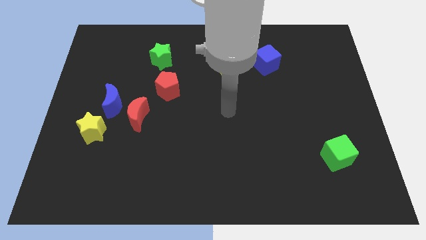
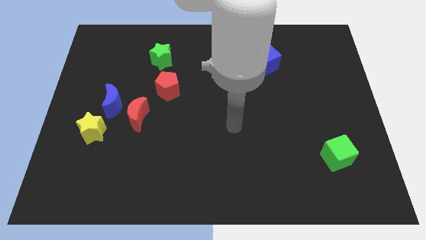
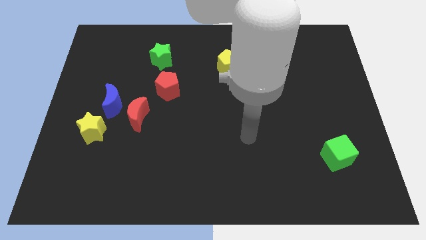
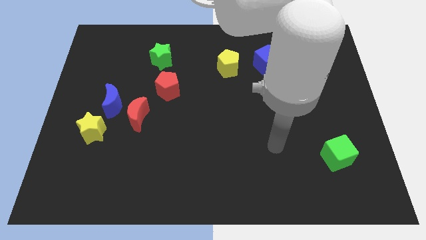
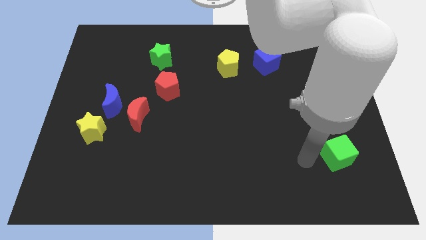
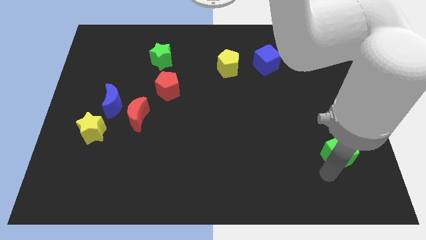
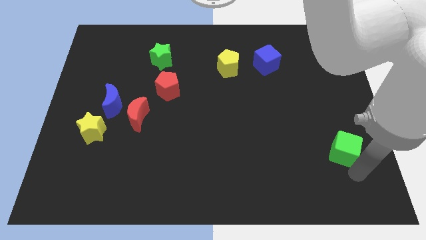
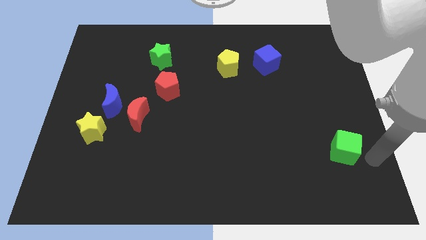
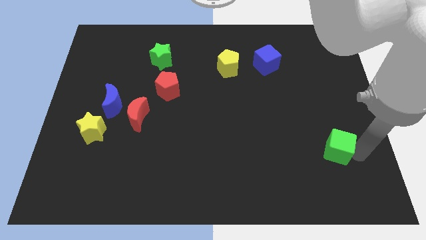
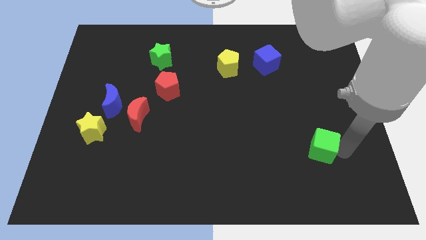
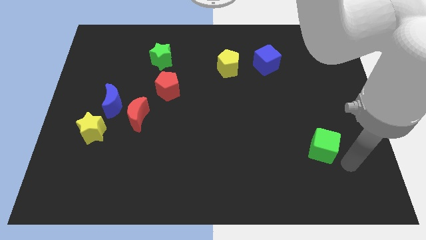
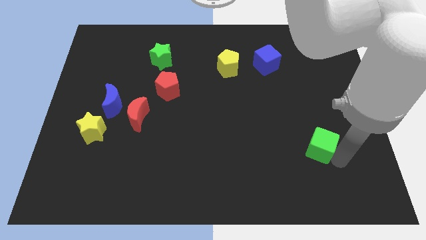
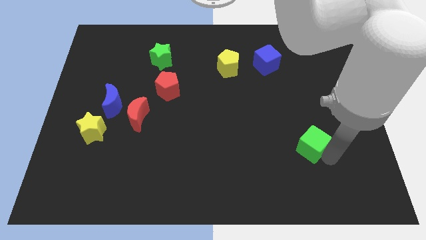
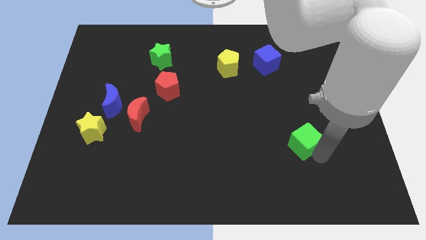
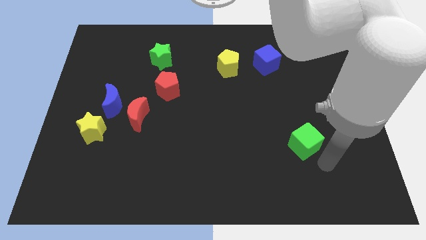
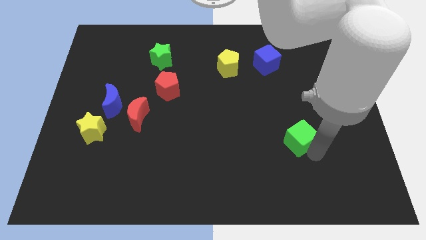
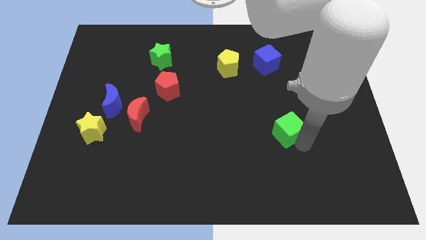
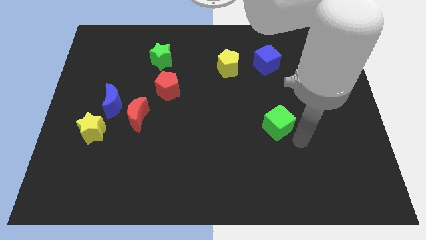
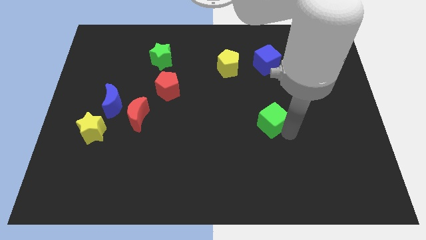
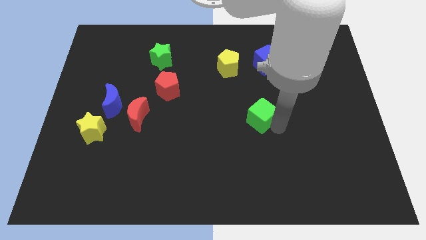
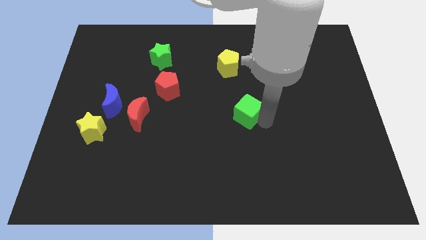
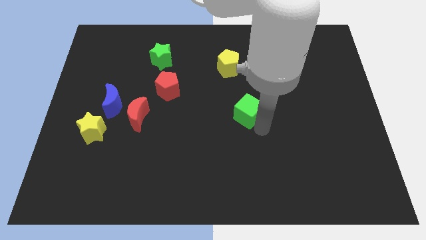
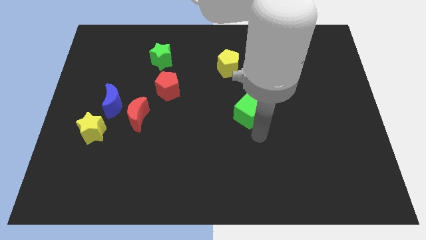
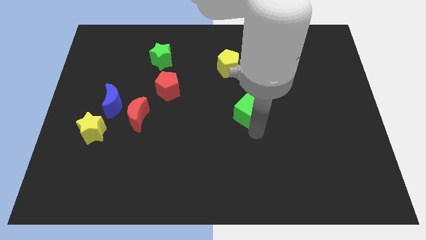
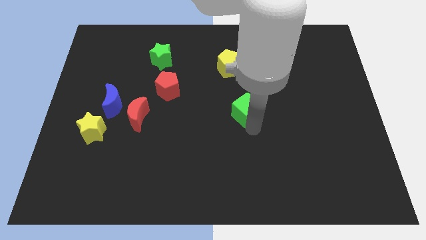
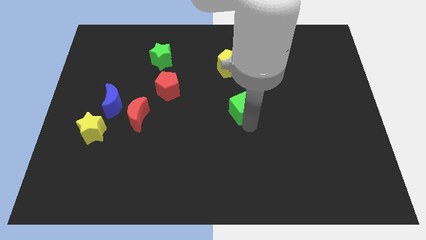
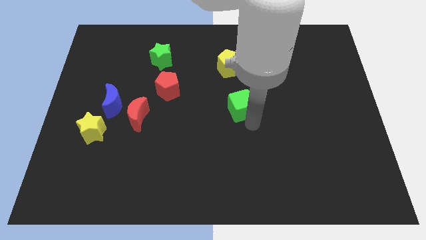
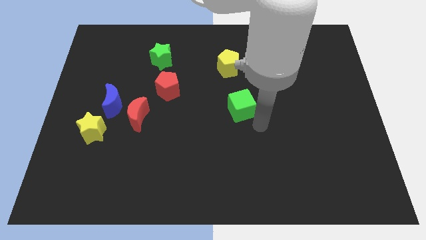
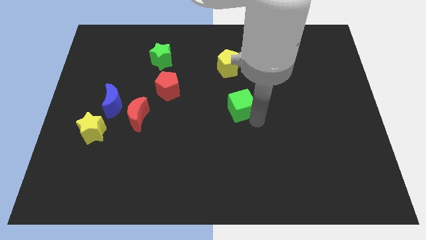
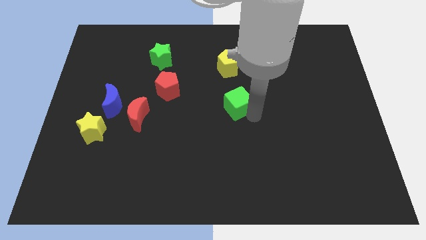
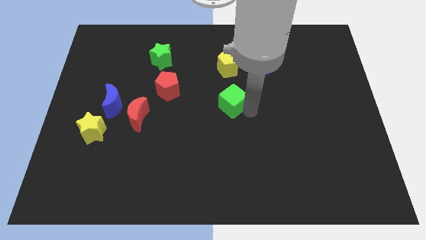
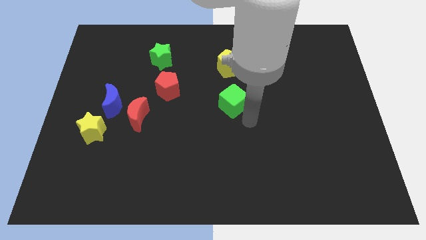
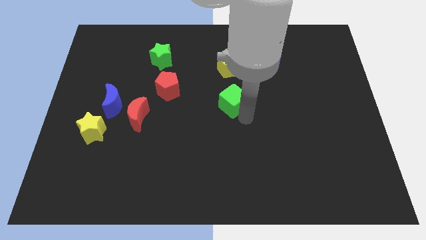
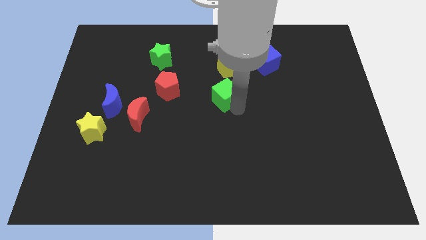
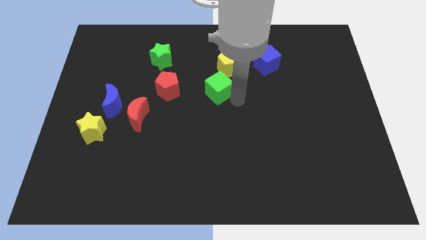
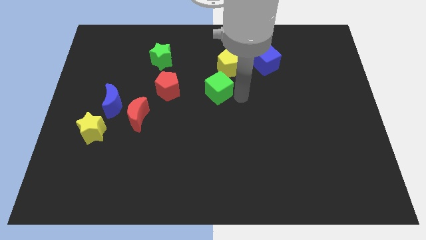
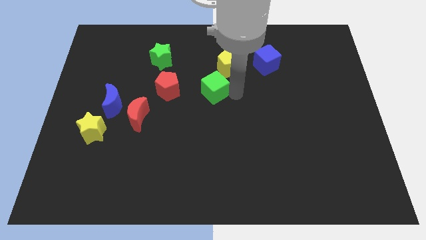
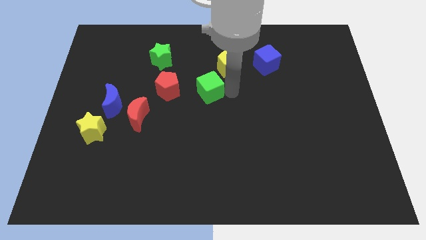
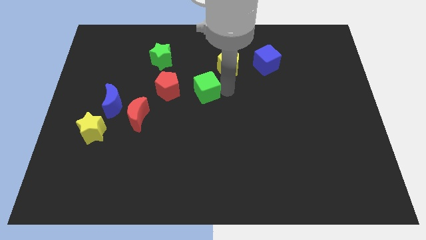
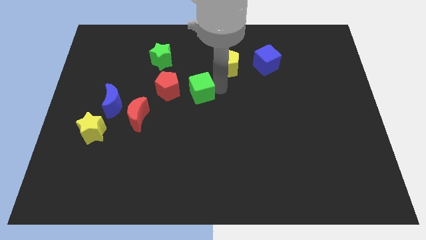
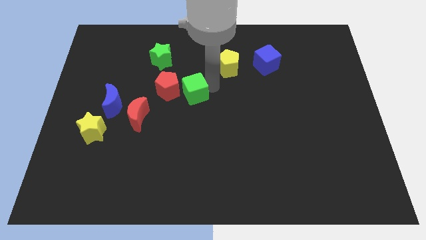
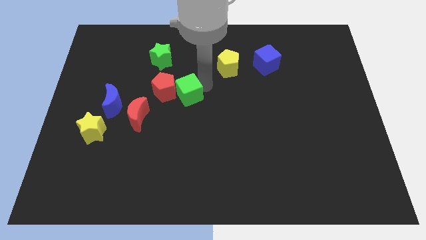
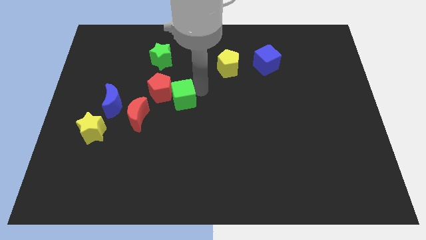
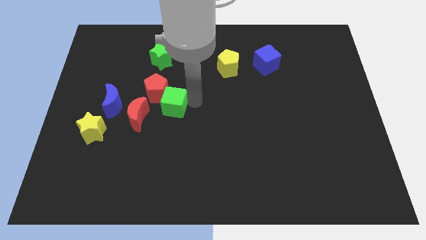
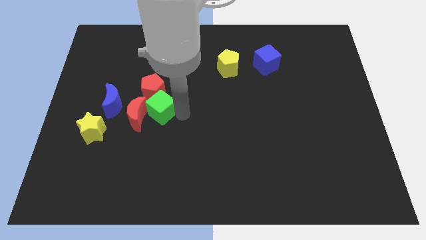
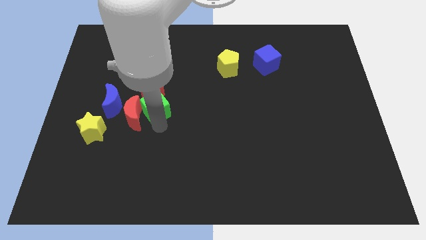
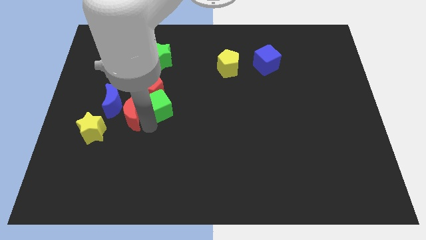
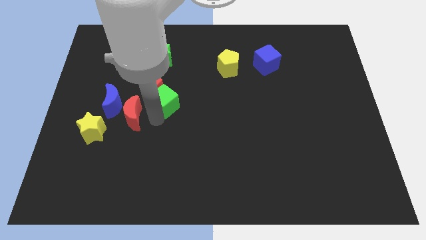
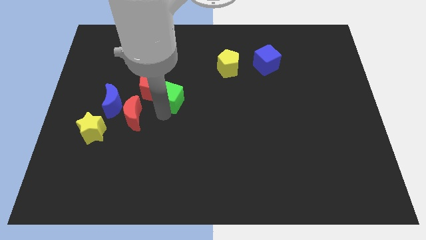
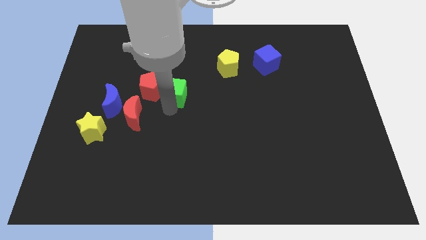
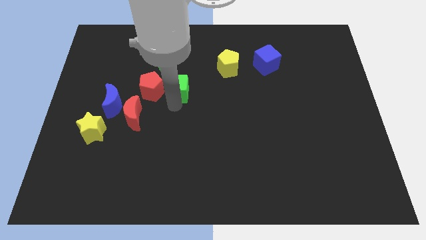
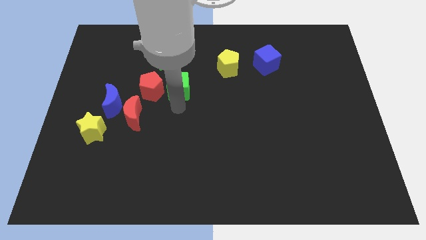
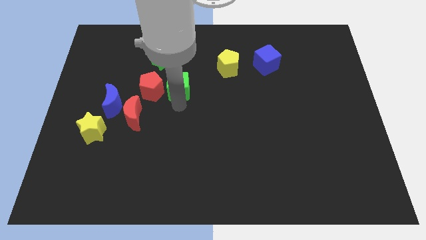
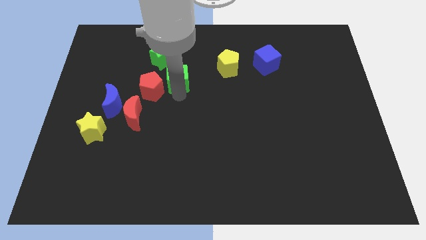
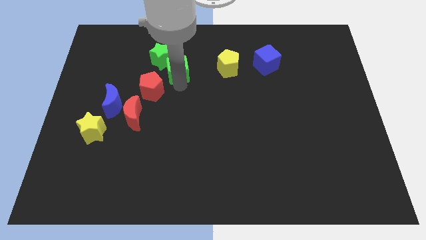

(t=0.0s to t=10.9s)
move the green cube towards the green star

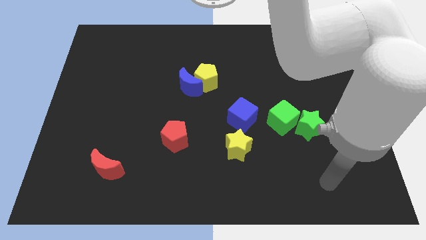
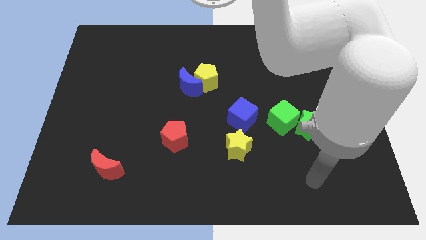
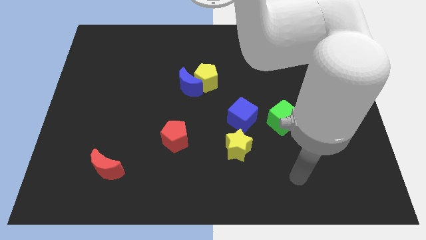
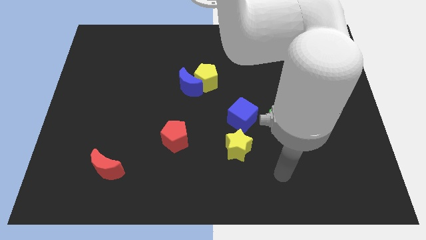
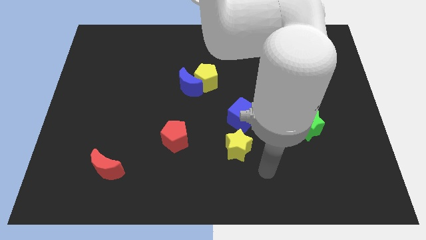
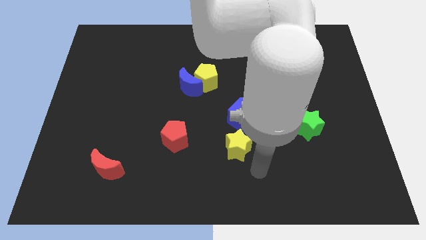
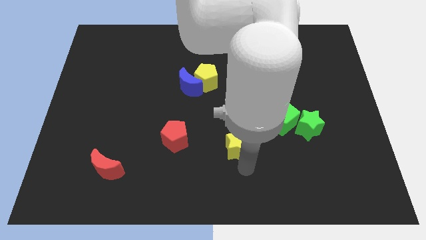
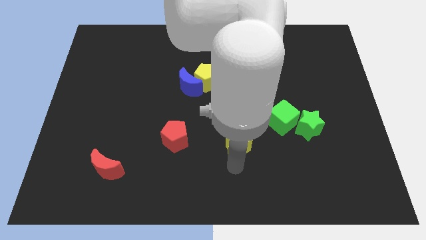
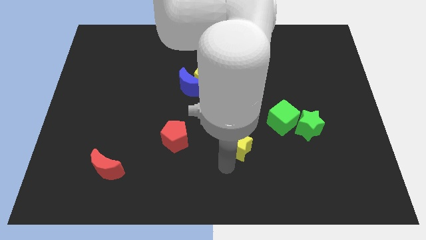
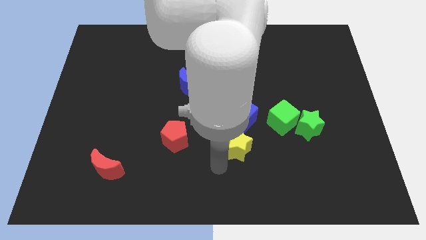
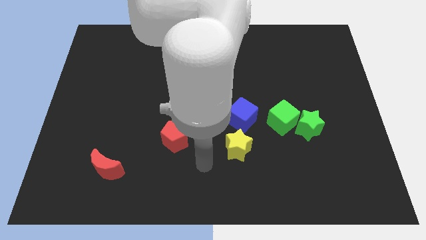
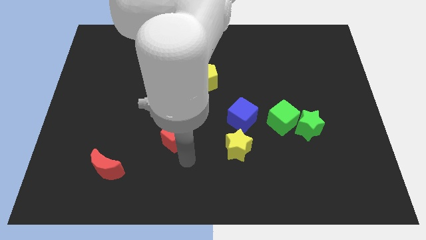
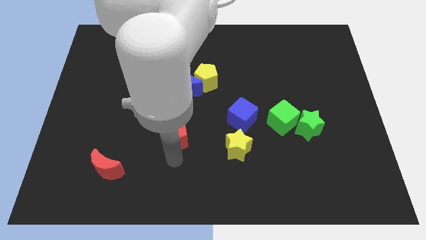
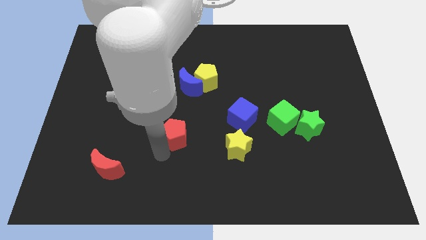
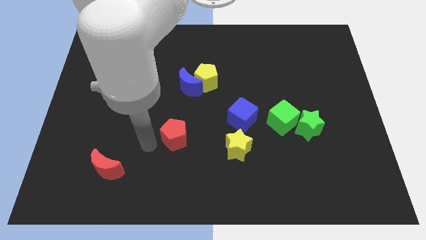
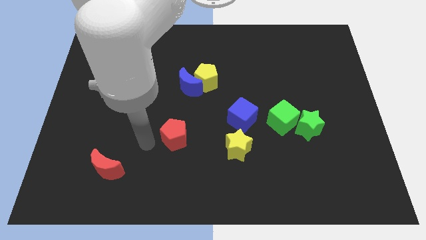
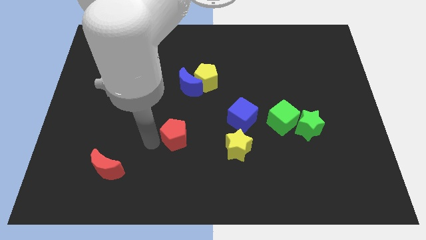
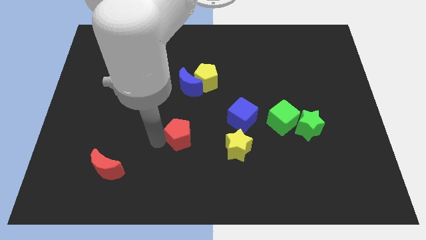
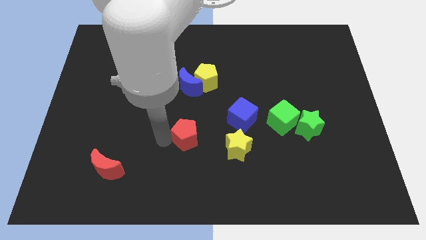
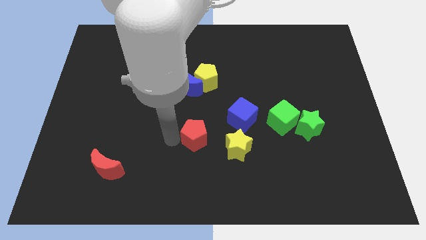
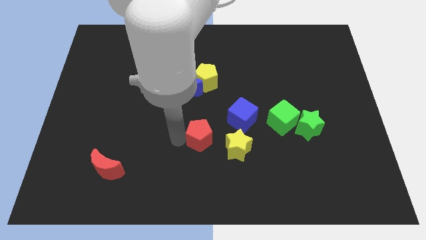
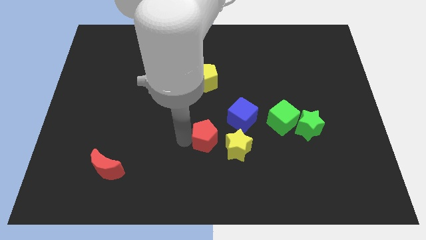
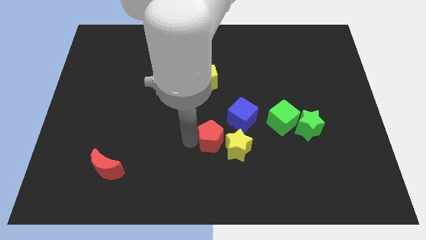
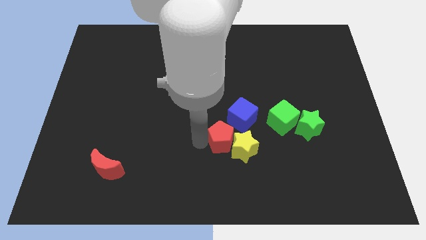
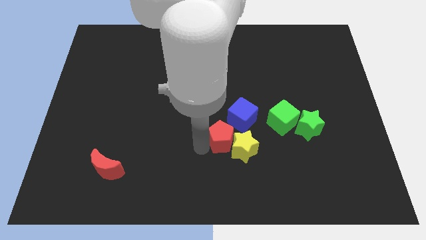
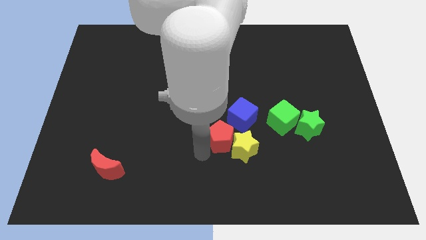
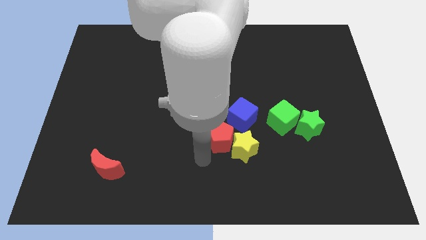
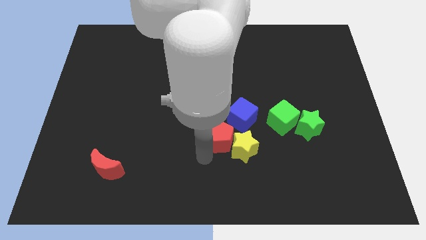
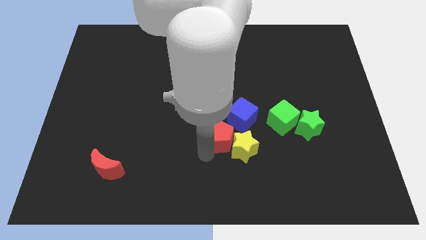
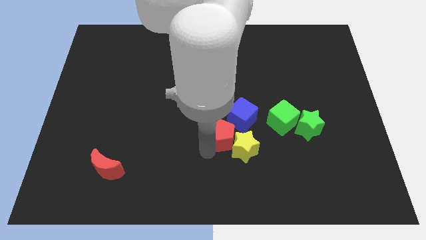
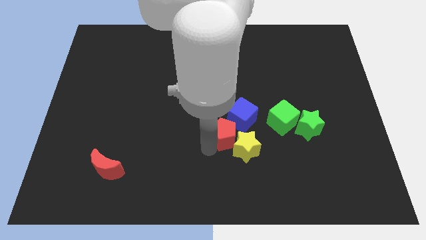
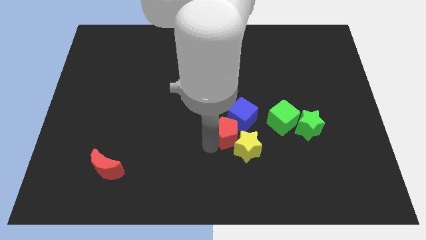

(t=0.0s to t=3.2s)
move the red pentagon to the blue cube
